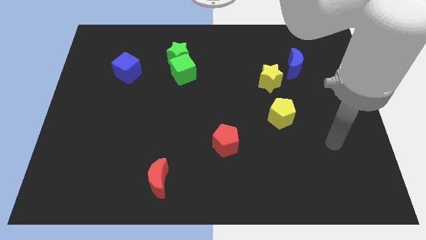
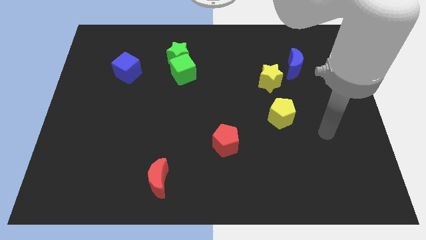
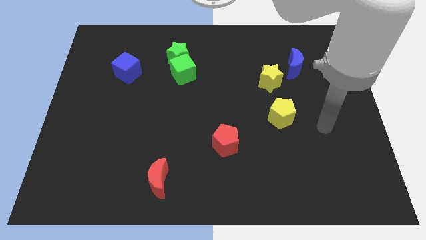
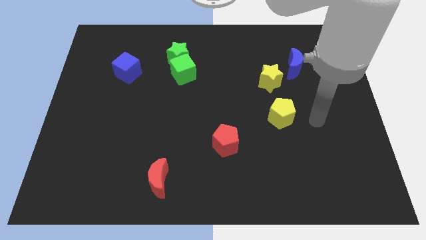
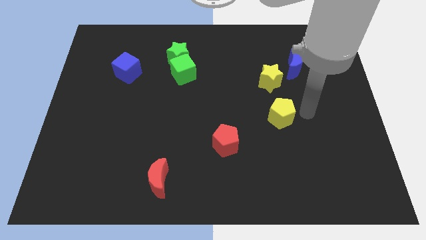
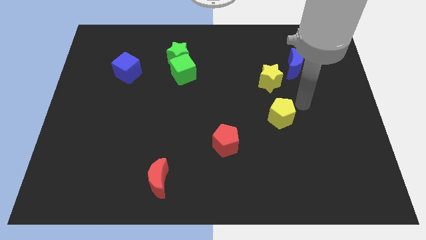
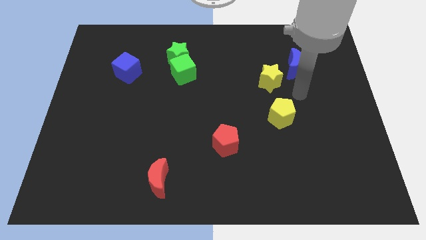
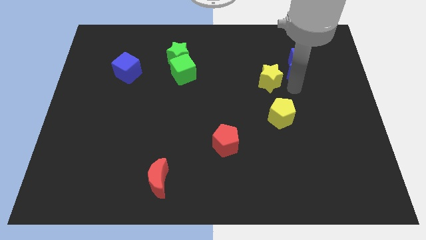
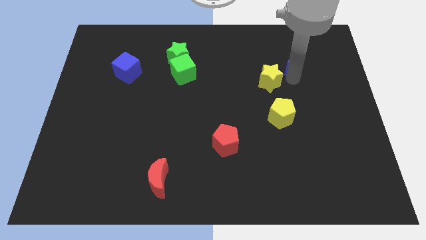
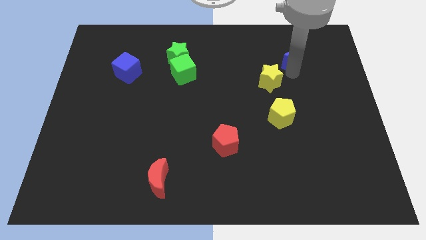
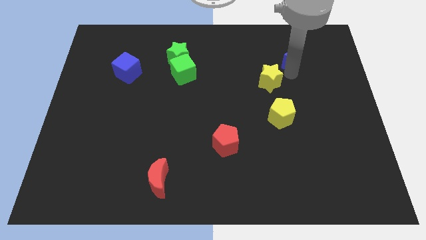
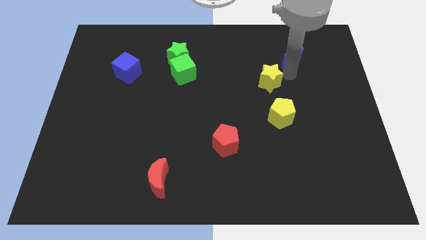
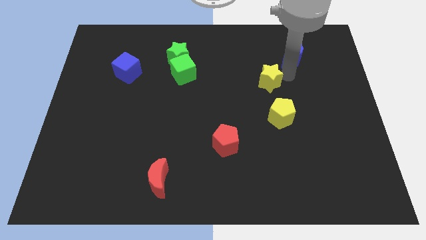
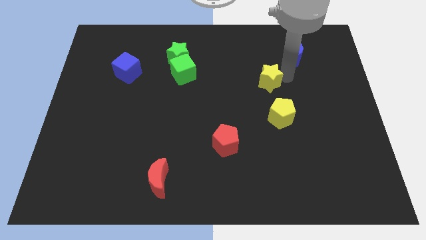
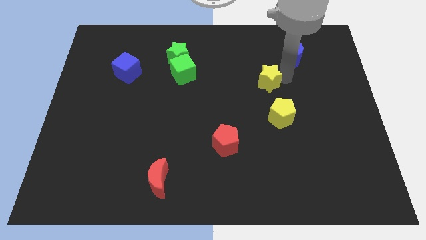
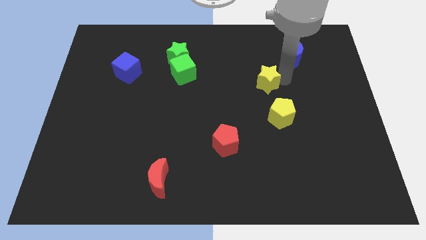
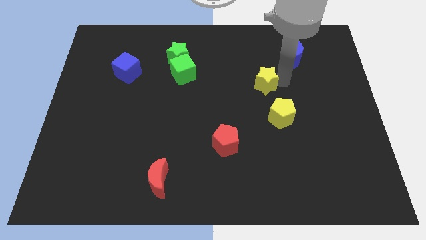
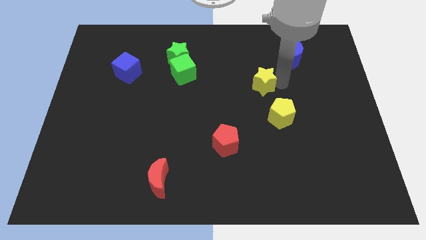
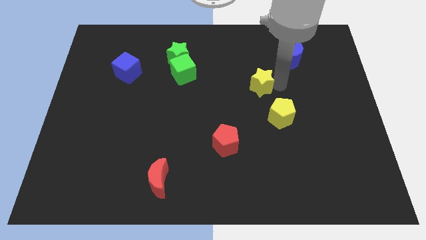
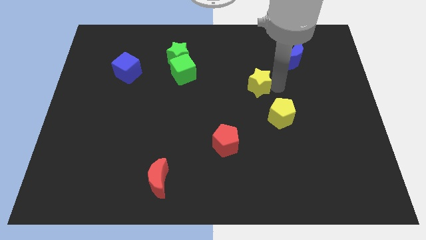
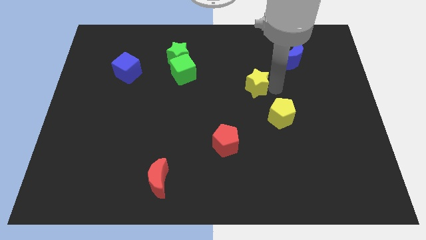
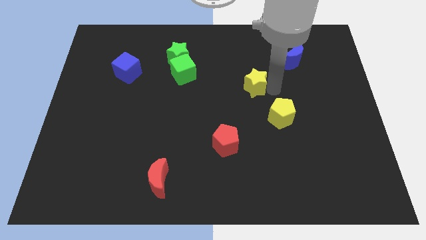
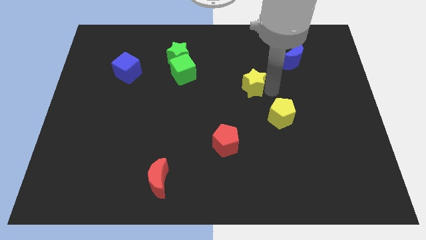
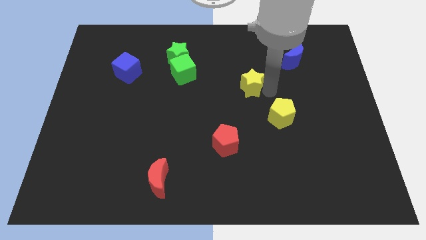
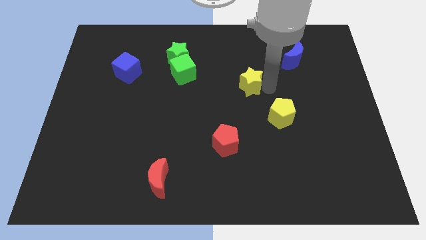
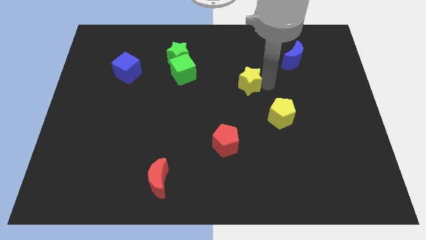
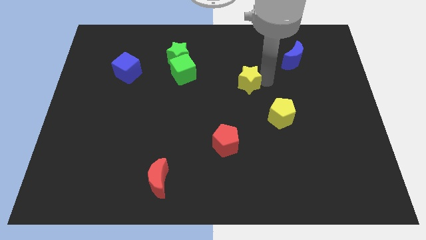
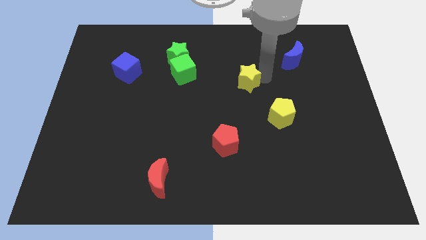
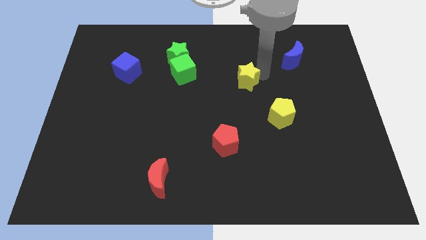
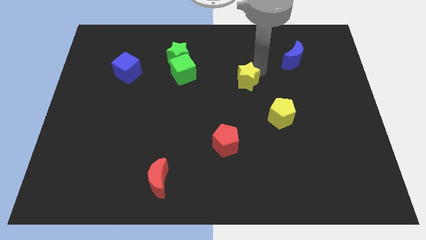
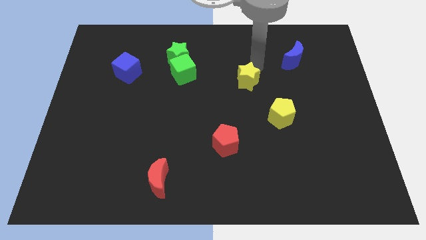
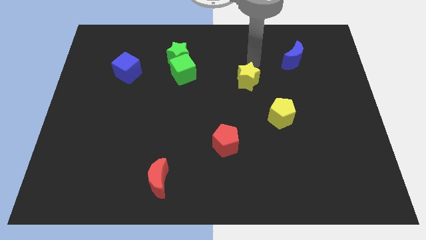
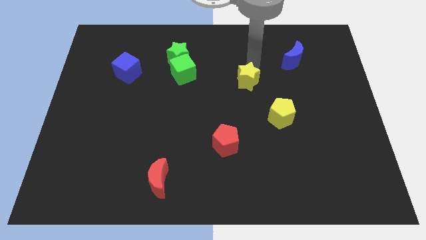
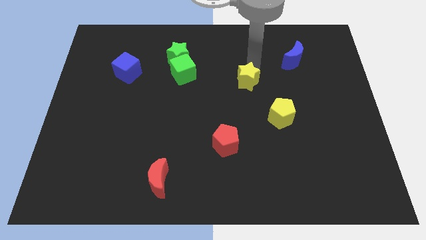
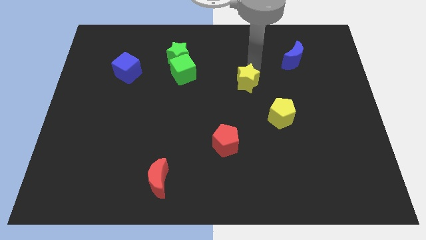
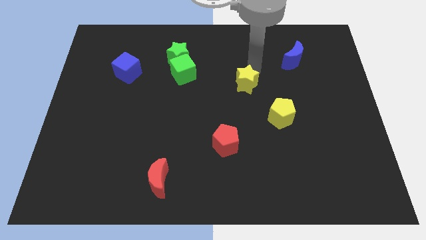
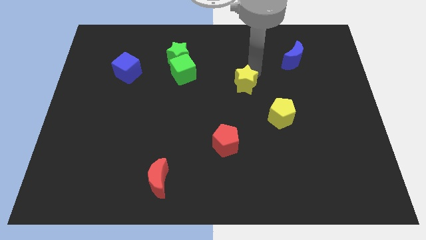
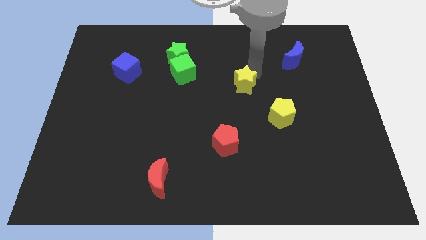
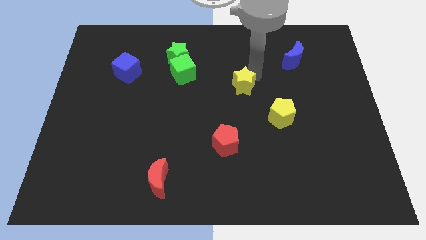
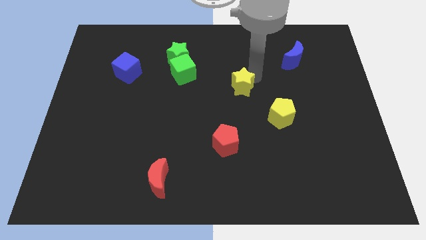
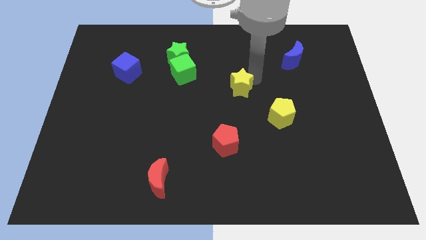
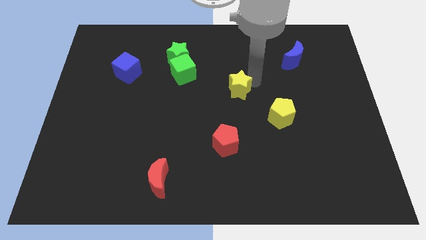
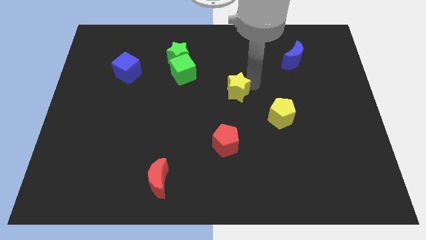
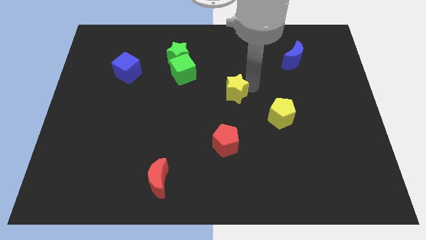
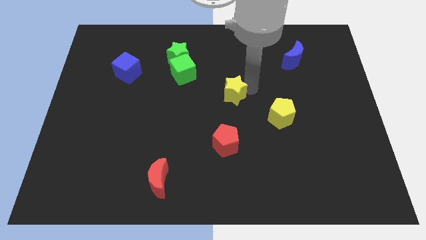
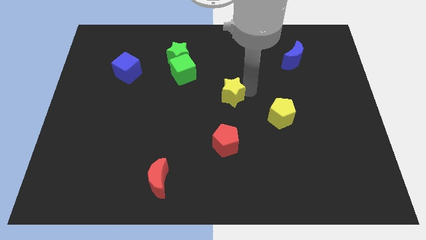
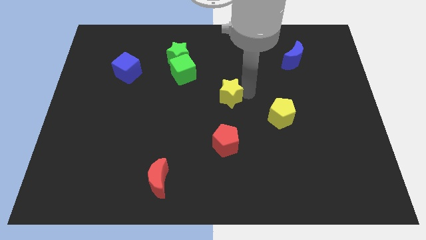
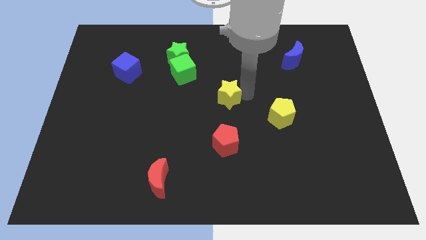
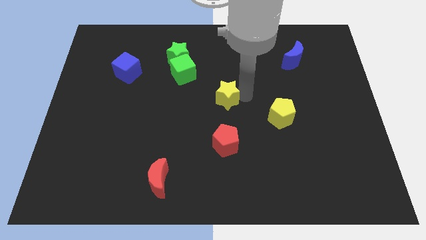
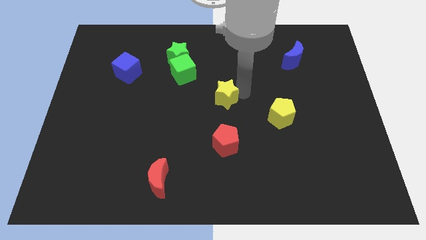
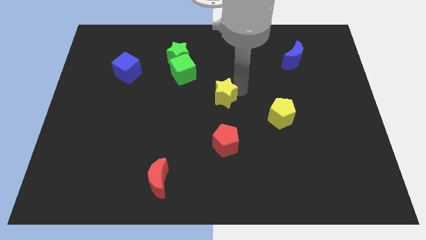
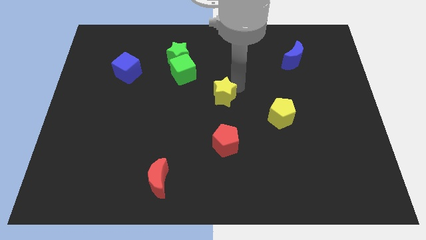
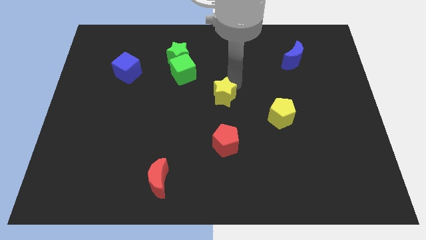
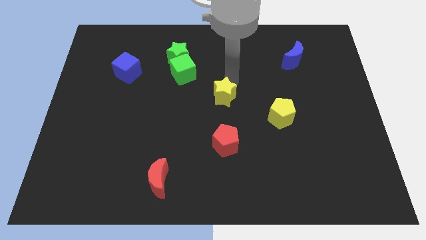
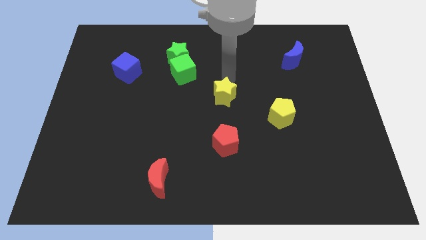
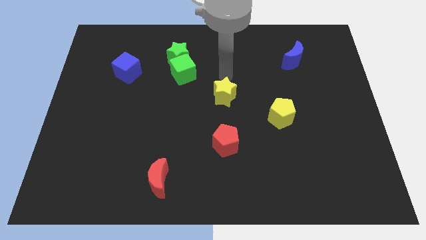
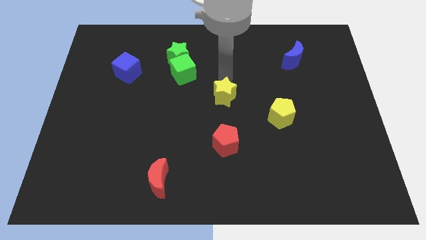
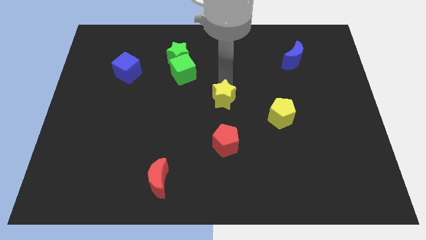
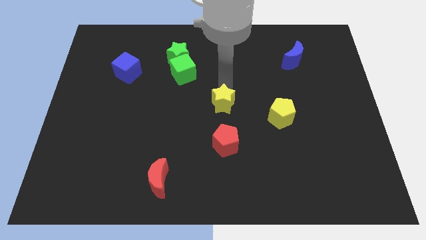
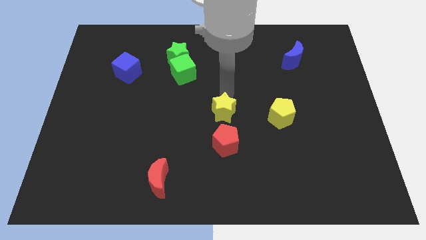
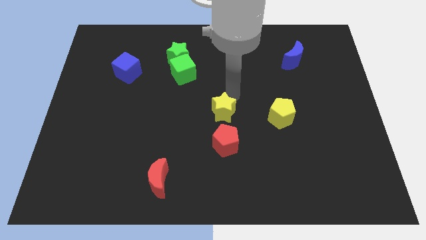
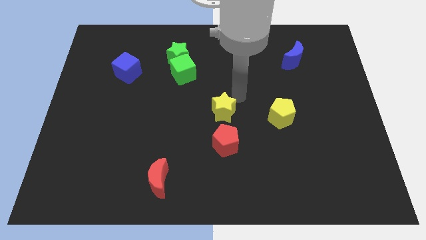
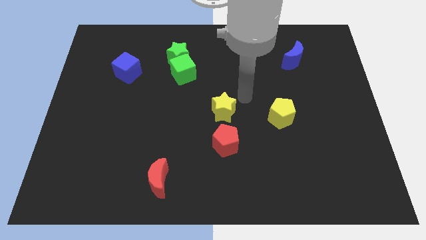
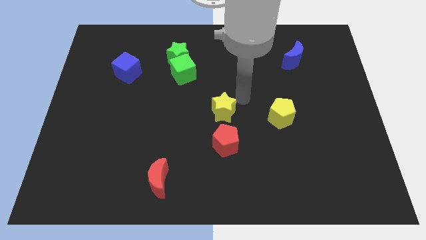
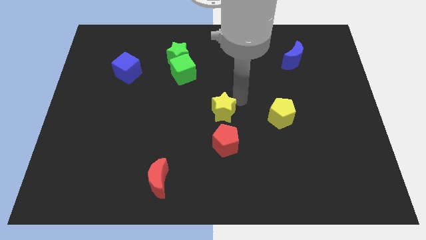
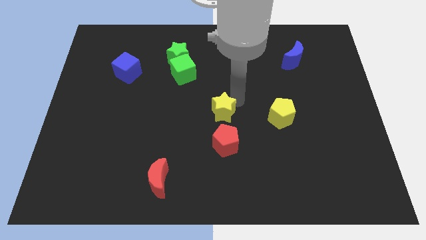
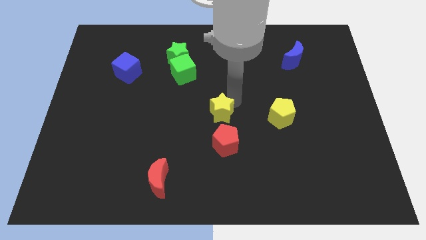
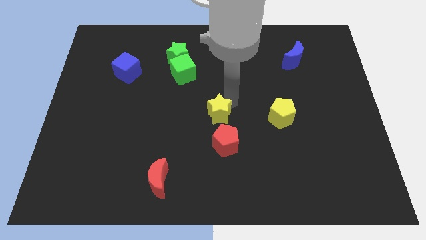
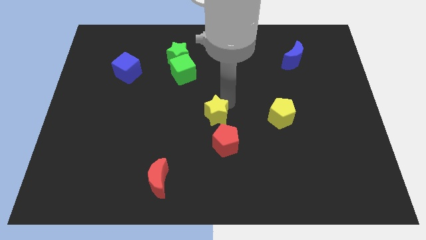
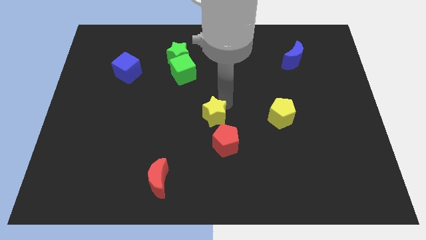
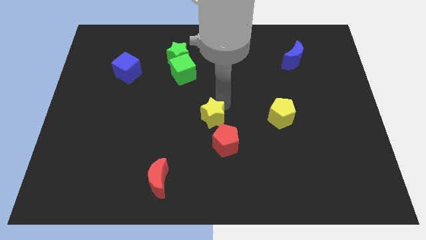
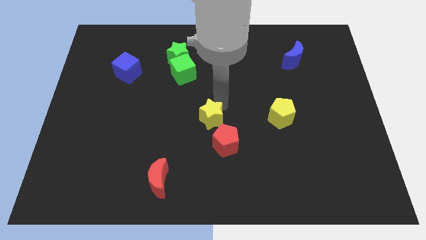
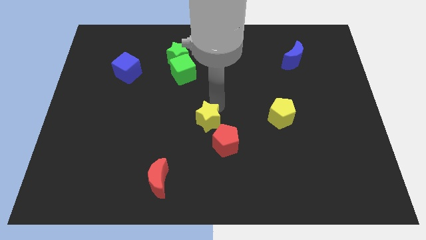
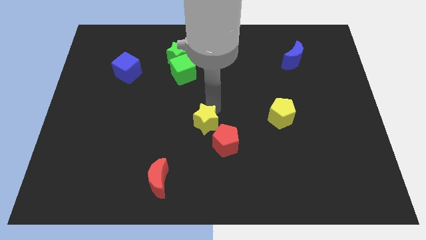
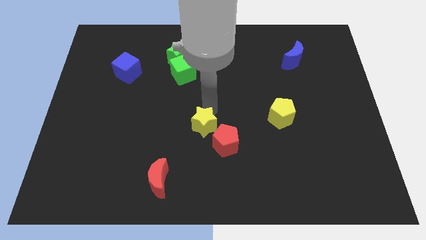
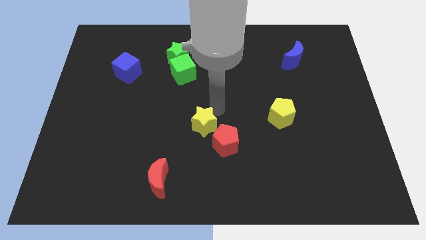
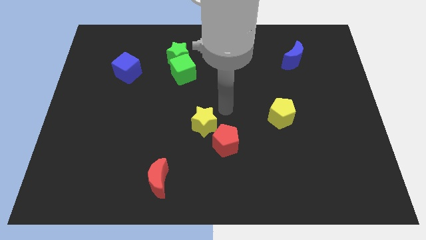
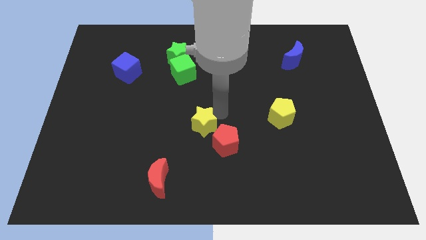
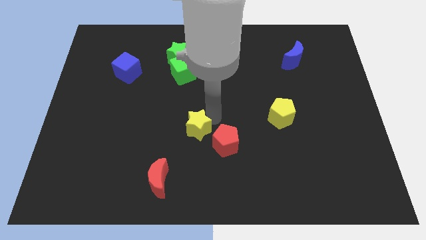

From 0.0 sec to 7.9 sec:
move the yellow star to the left side of the red pentagon
